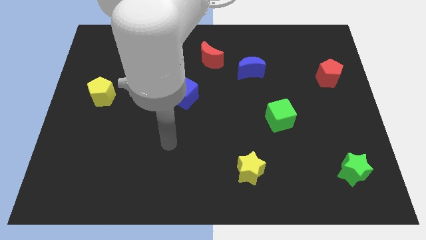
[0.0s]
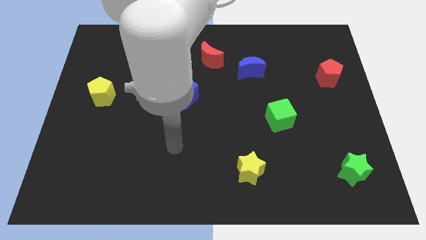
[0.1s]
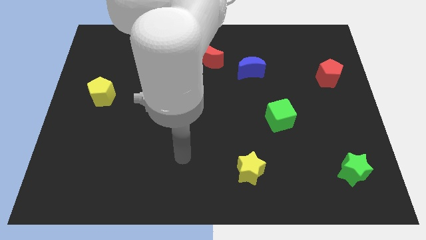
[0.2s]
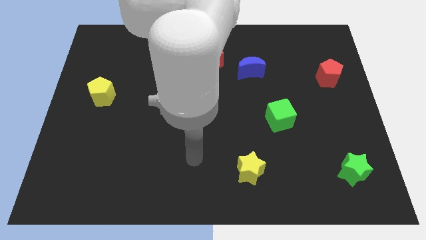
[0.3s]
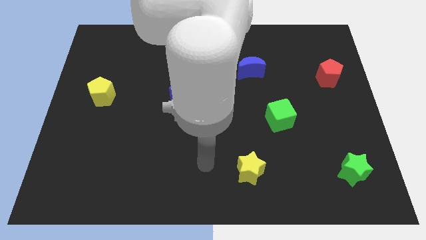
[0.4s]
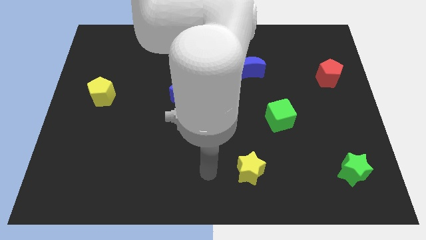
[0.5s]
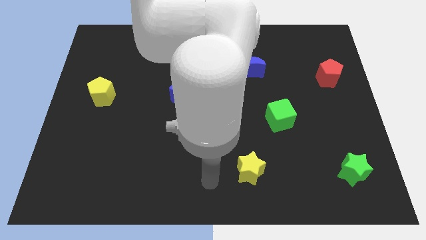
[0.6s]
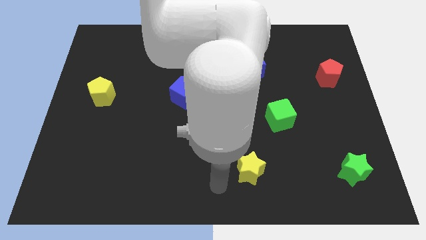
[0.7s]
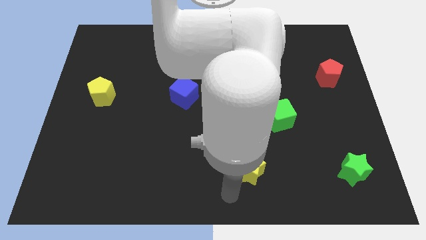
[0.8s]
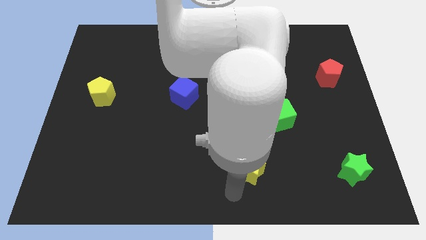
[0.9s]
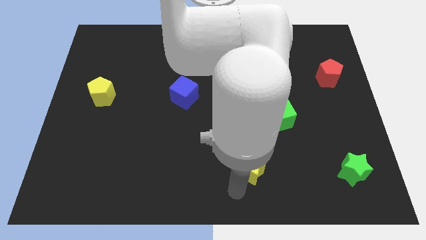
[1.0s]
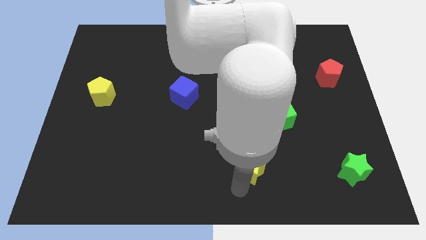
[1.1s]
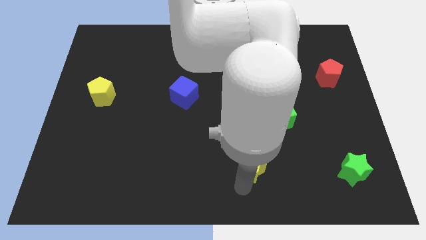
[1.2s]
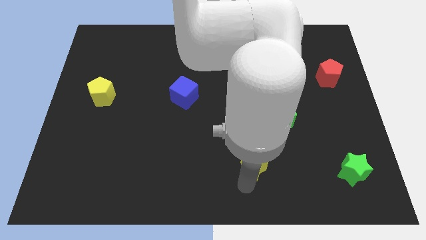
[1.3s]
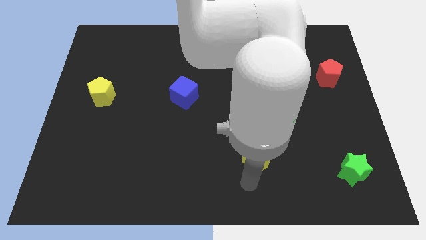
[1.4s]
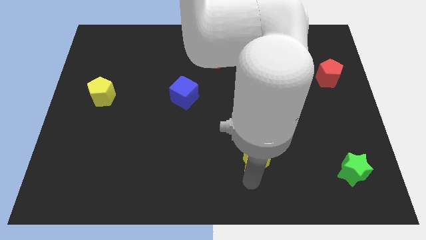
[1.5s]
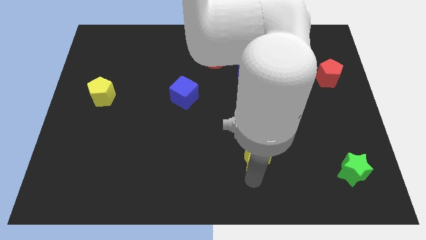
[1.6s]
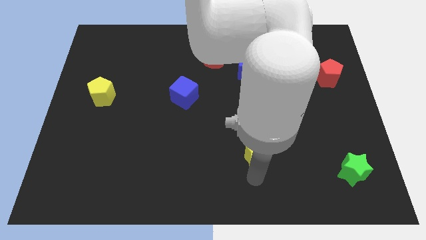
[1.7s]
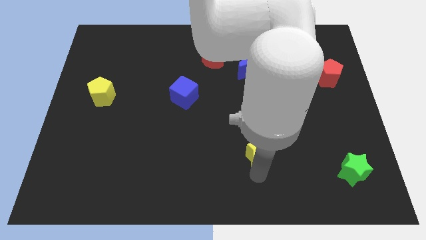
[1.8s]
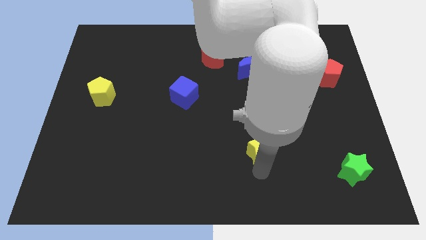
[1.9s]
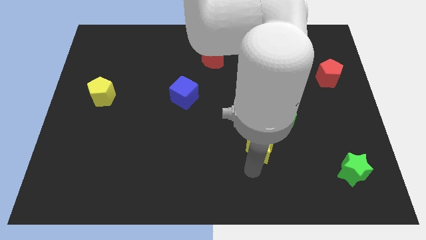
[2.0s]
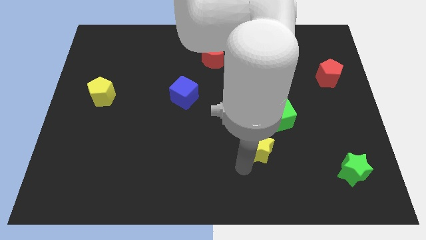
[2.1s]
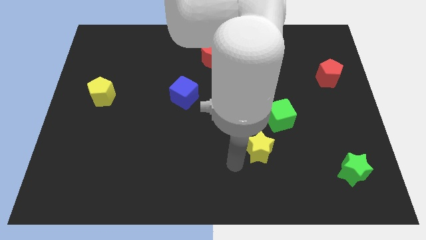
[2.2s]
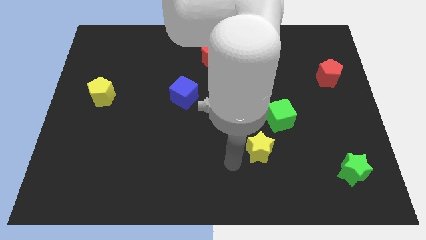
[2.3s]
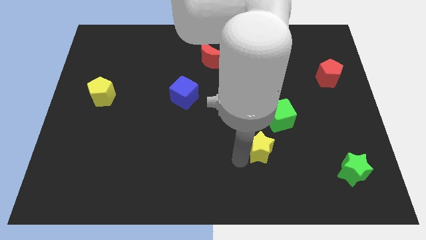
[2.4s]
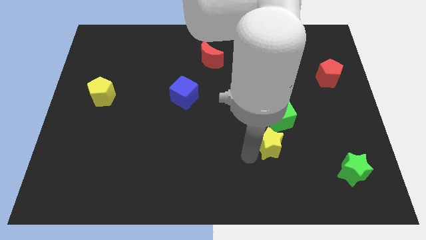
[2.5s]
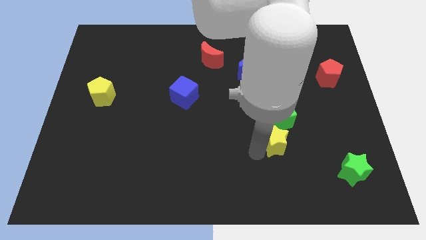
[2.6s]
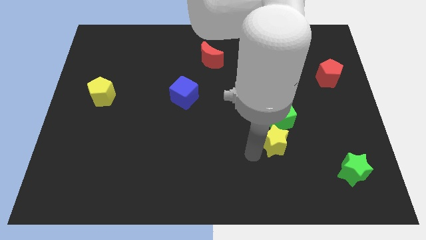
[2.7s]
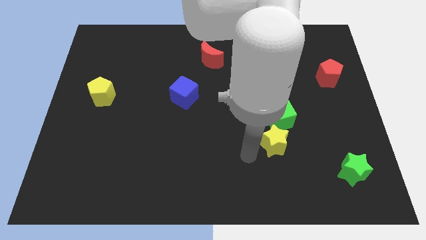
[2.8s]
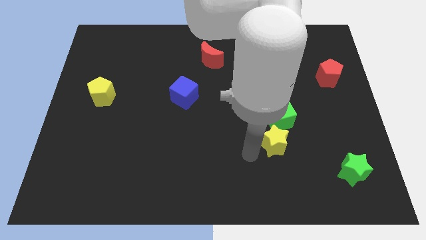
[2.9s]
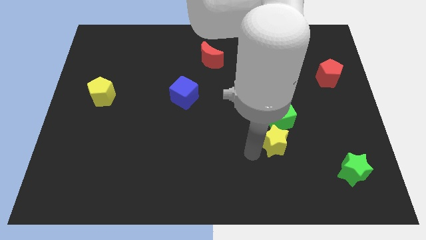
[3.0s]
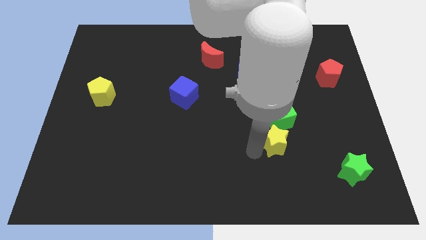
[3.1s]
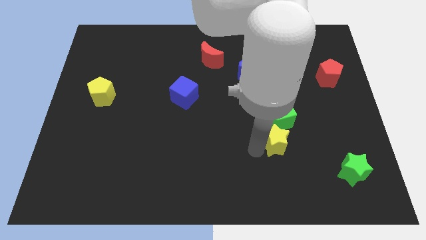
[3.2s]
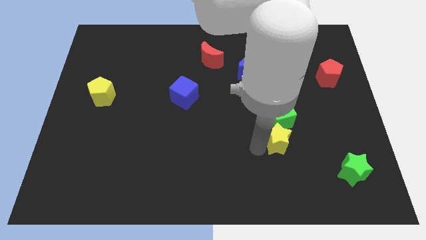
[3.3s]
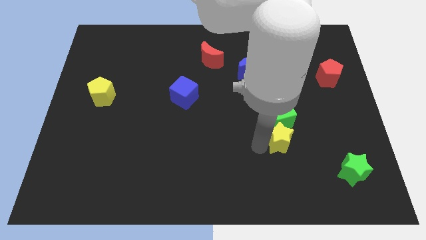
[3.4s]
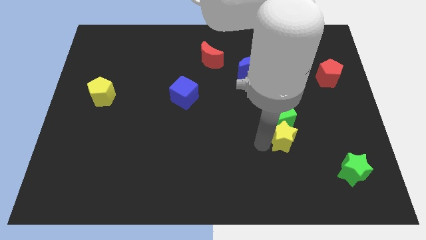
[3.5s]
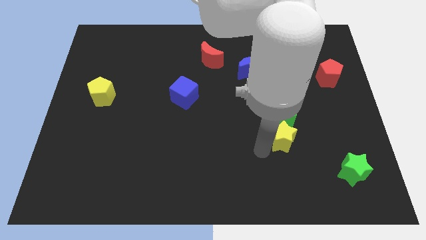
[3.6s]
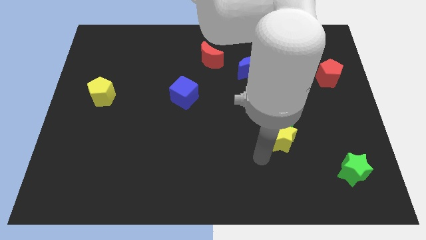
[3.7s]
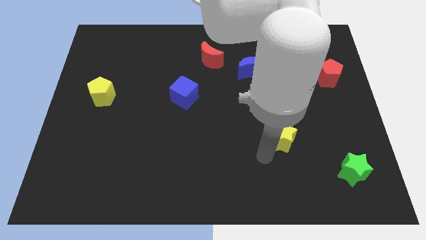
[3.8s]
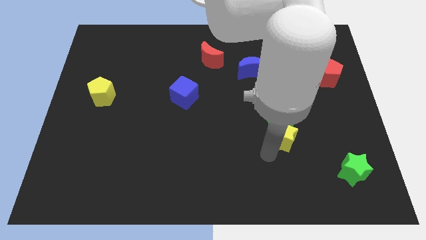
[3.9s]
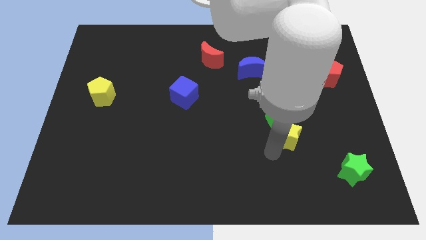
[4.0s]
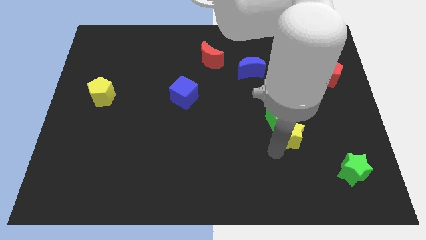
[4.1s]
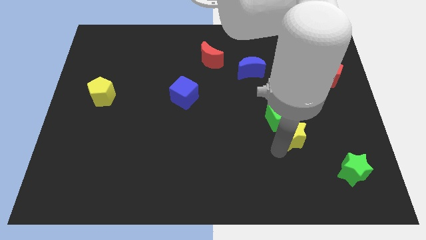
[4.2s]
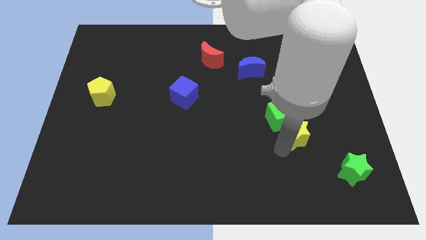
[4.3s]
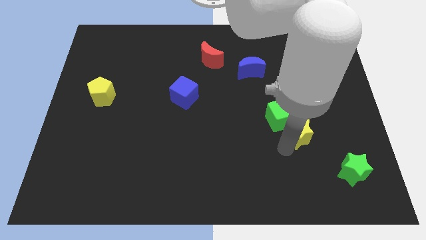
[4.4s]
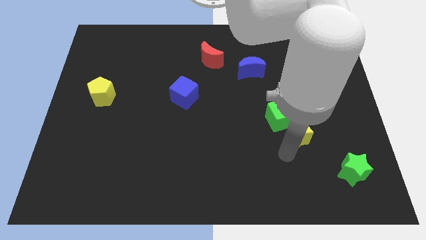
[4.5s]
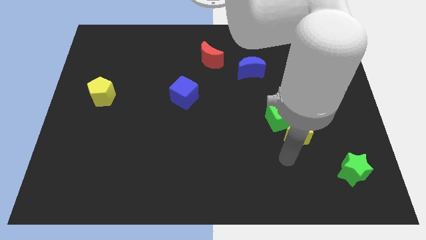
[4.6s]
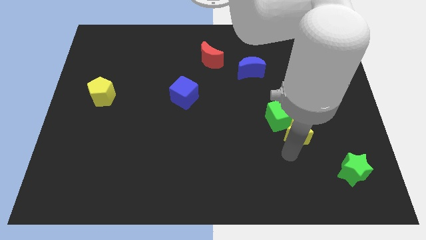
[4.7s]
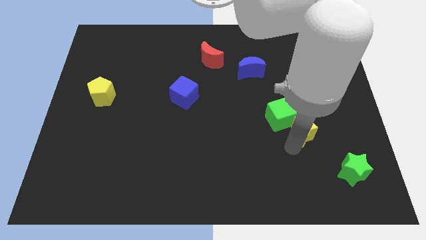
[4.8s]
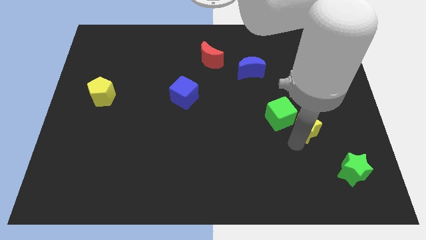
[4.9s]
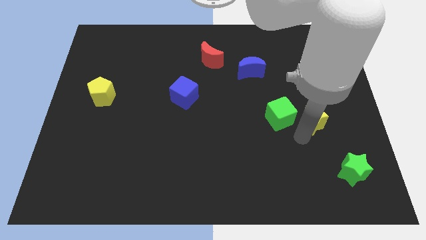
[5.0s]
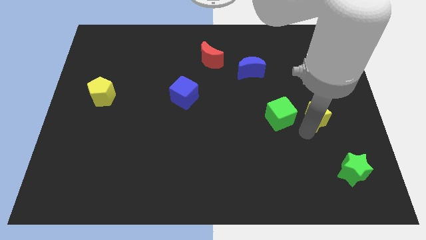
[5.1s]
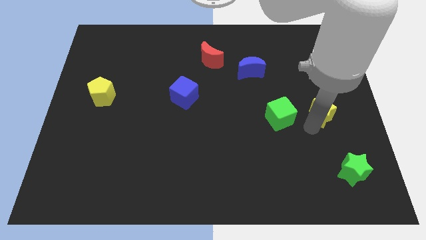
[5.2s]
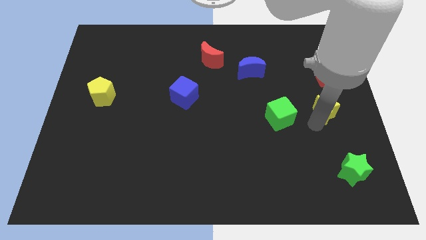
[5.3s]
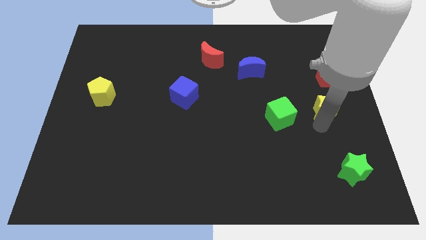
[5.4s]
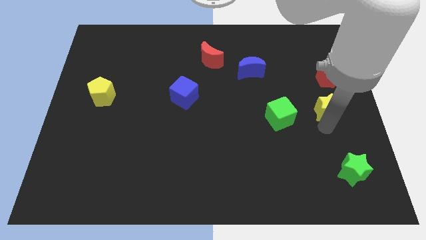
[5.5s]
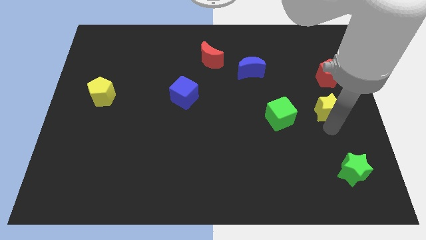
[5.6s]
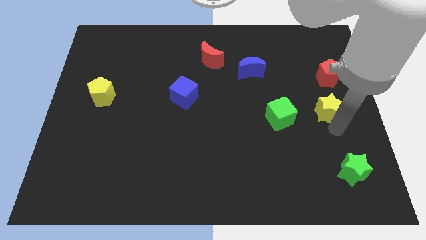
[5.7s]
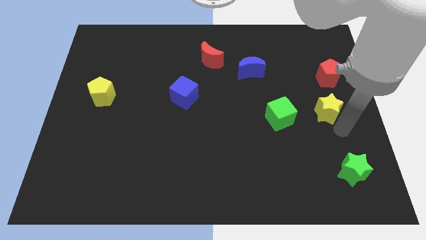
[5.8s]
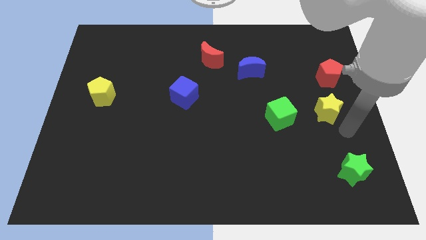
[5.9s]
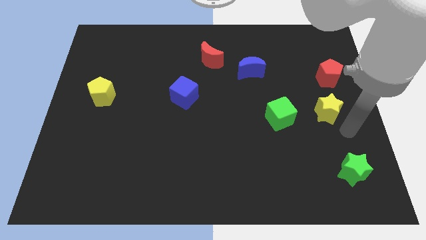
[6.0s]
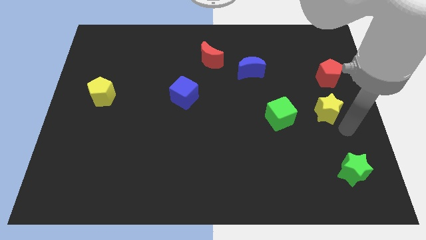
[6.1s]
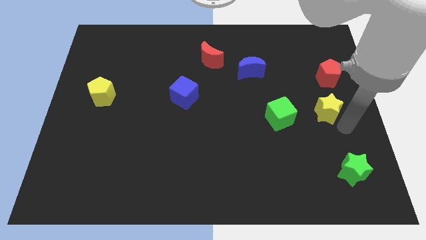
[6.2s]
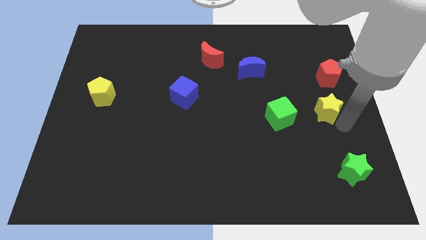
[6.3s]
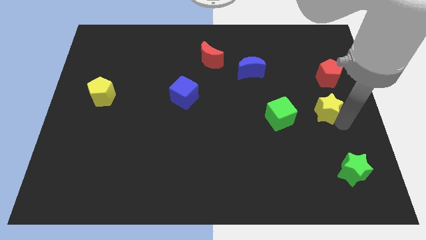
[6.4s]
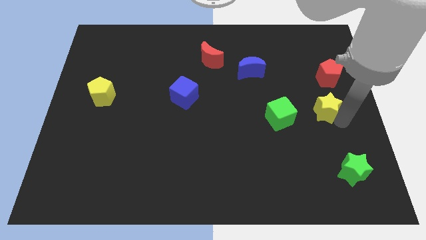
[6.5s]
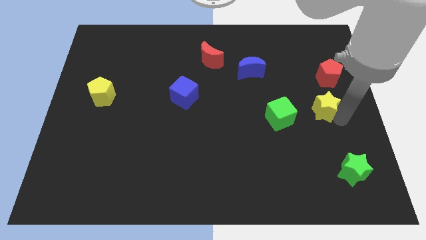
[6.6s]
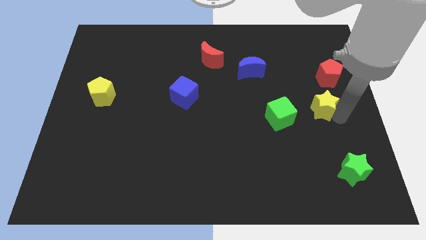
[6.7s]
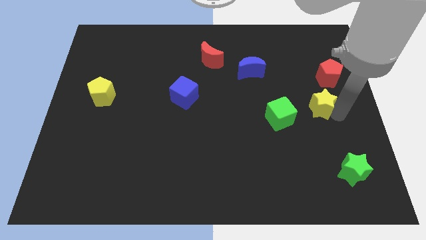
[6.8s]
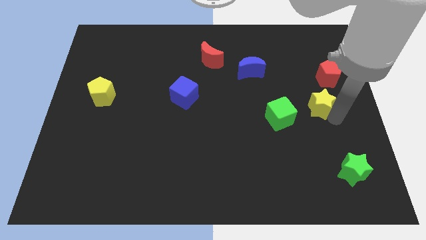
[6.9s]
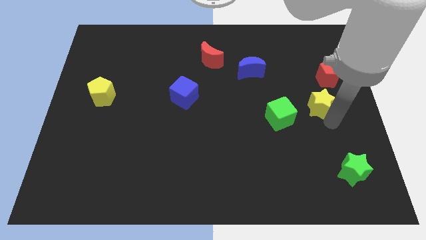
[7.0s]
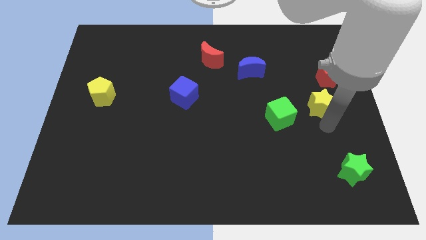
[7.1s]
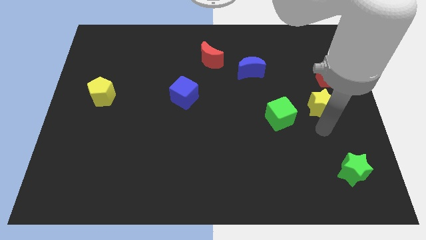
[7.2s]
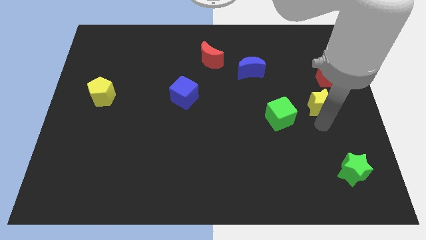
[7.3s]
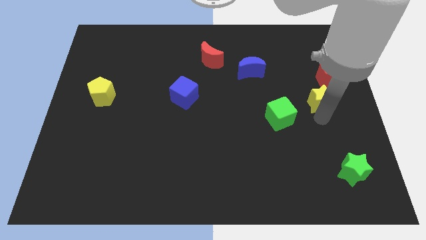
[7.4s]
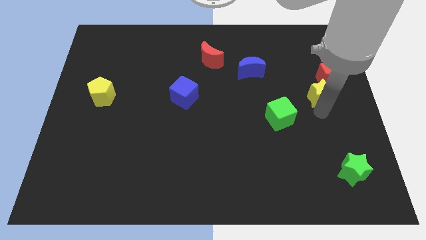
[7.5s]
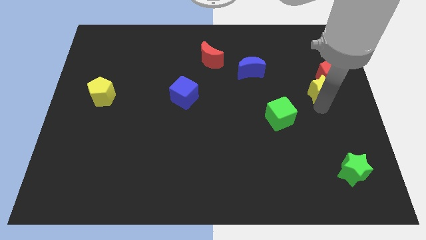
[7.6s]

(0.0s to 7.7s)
put the yellow star next to the red pentagon
